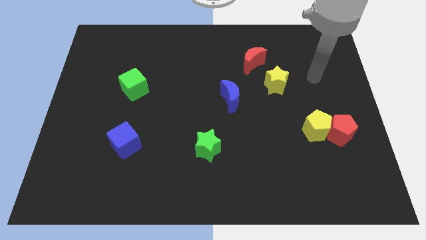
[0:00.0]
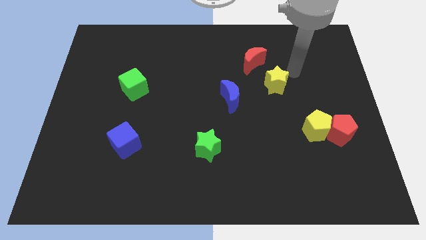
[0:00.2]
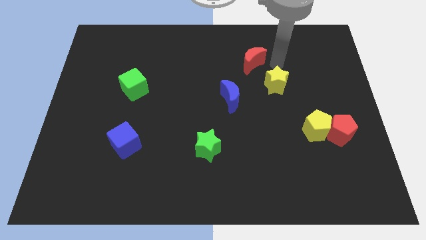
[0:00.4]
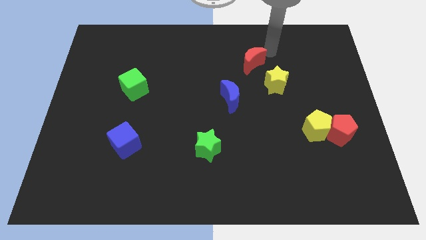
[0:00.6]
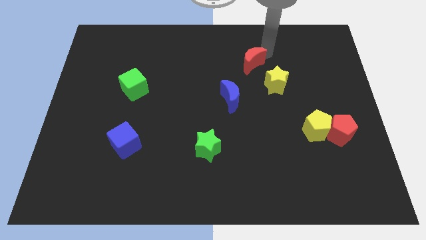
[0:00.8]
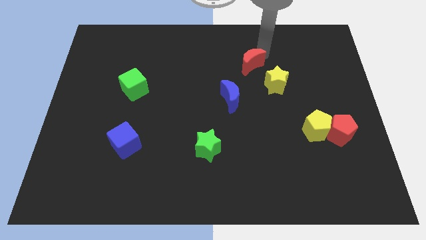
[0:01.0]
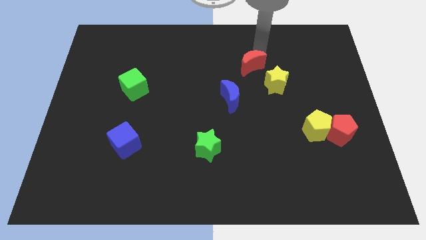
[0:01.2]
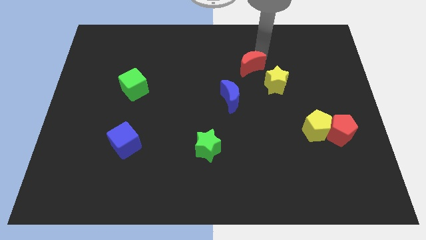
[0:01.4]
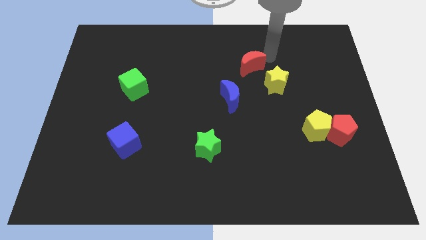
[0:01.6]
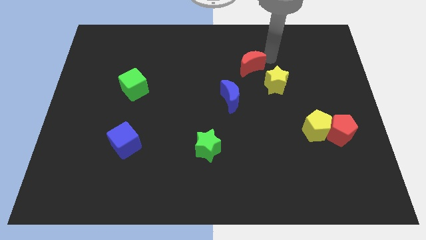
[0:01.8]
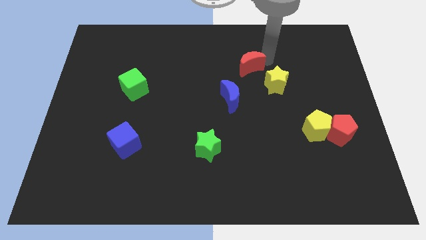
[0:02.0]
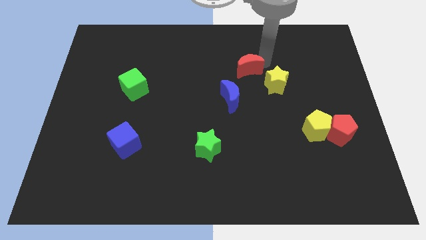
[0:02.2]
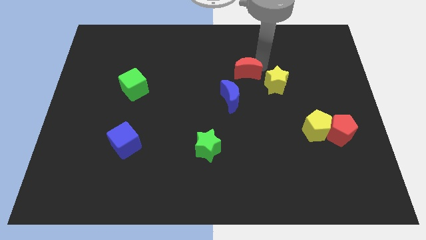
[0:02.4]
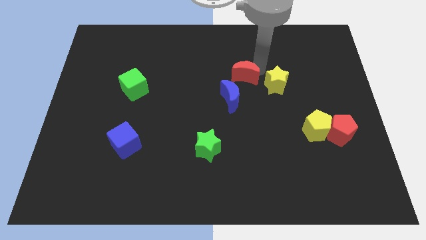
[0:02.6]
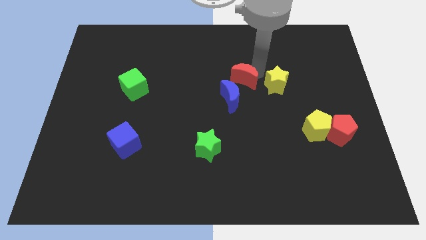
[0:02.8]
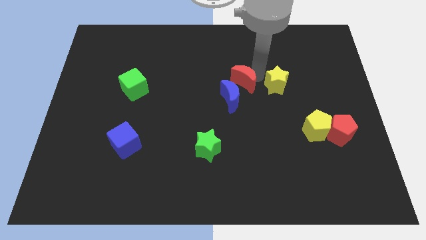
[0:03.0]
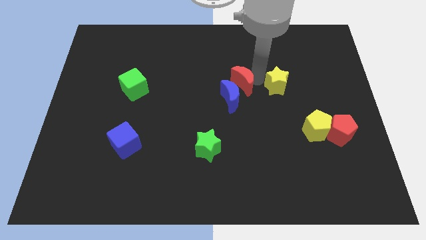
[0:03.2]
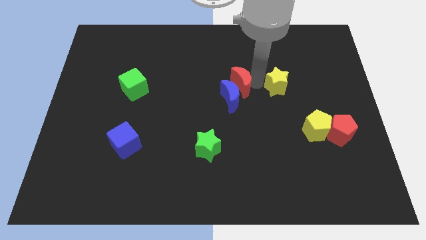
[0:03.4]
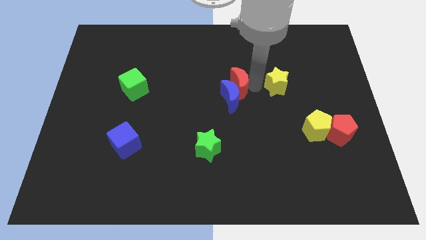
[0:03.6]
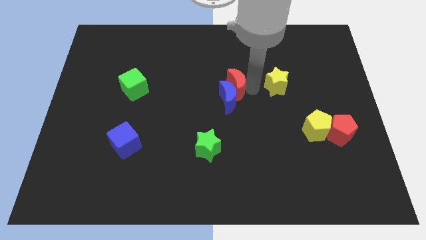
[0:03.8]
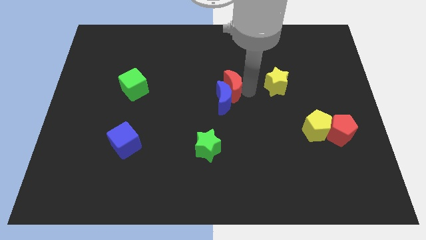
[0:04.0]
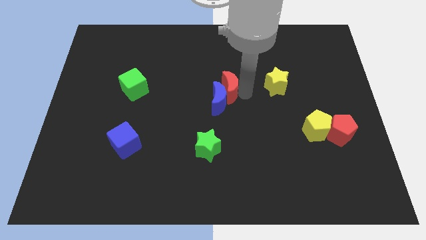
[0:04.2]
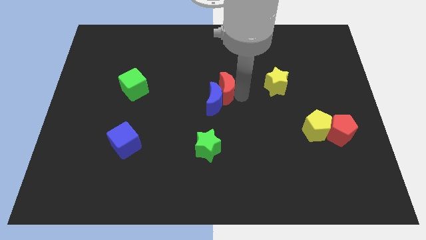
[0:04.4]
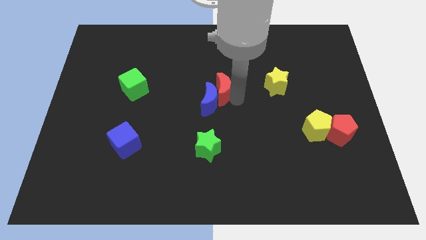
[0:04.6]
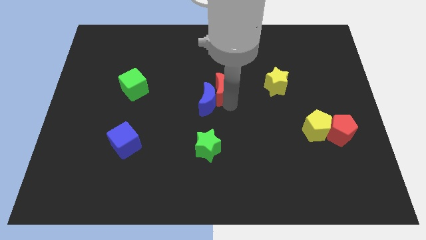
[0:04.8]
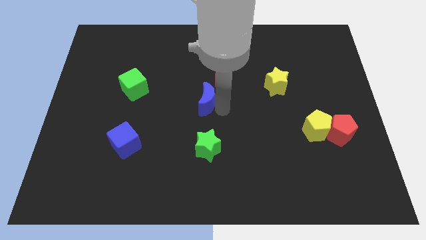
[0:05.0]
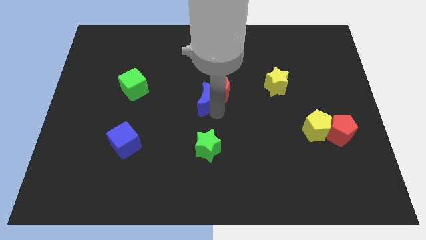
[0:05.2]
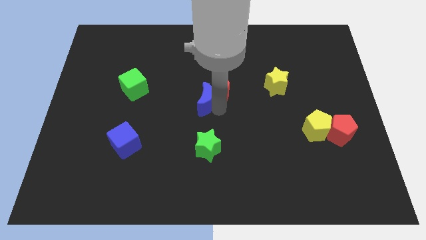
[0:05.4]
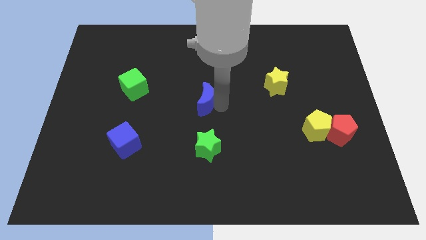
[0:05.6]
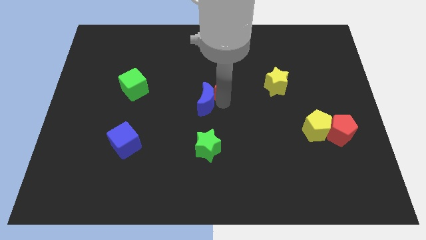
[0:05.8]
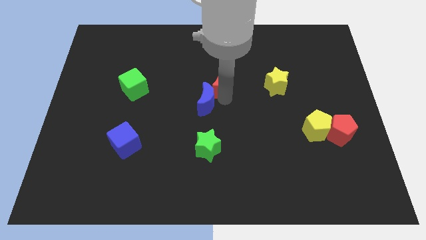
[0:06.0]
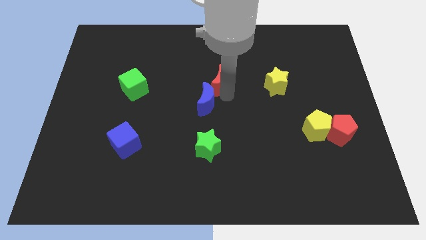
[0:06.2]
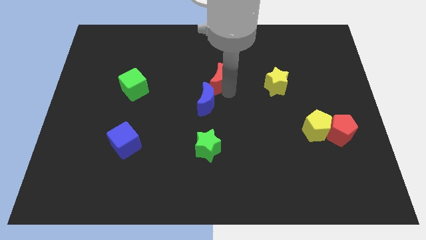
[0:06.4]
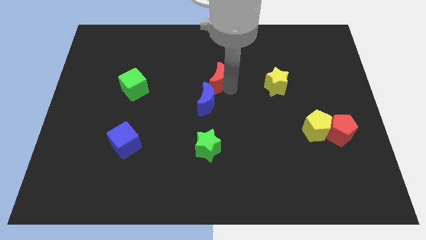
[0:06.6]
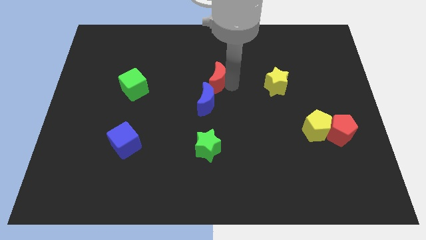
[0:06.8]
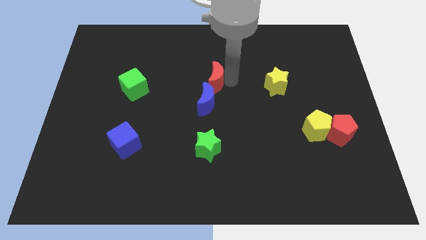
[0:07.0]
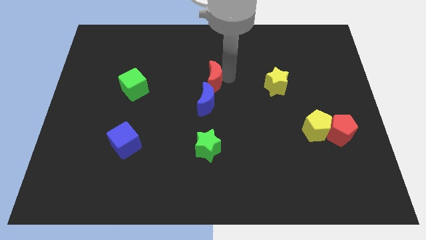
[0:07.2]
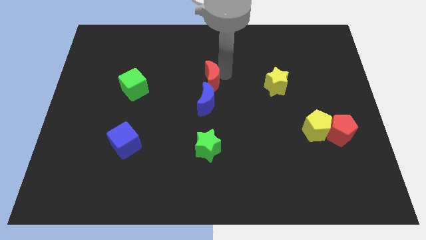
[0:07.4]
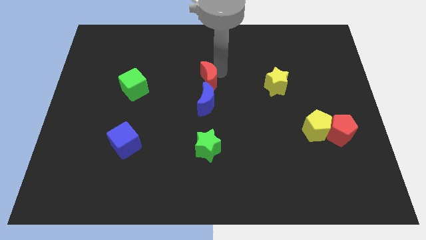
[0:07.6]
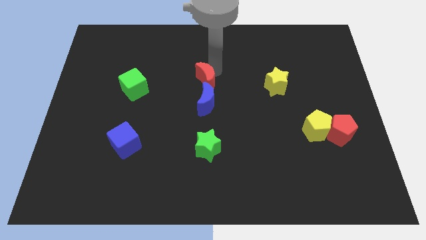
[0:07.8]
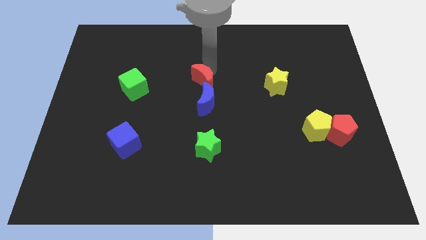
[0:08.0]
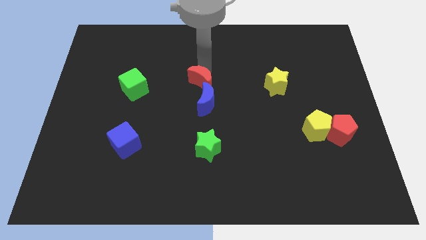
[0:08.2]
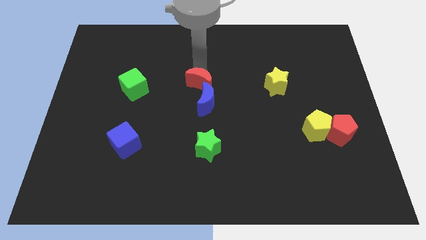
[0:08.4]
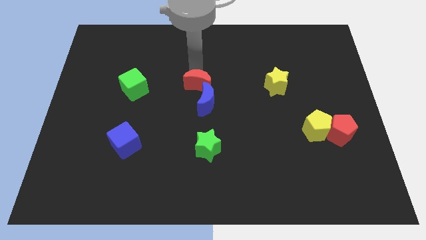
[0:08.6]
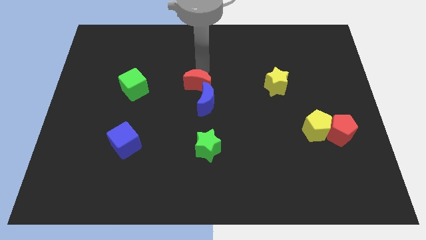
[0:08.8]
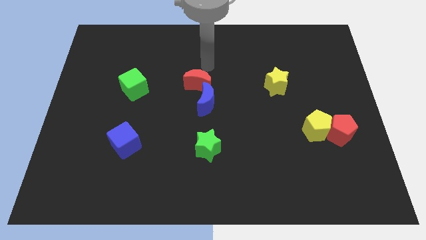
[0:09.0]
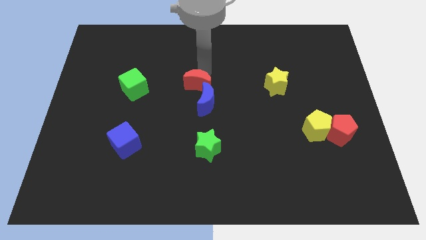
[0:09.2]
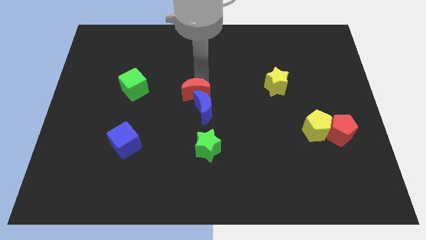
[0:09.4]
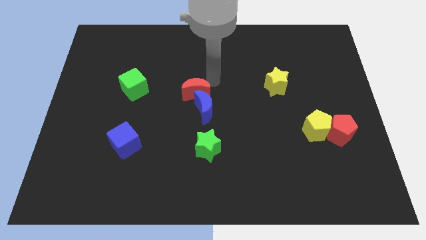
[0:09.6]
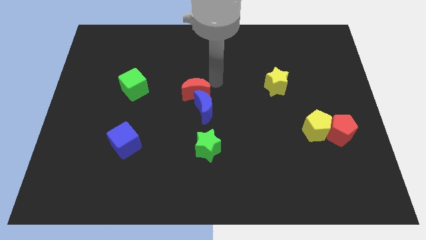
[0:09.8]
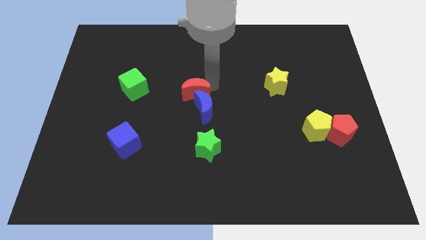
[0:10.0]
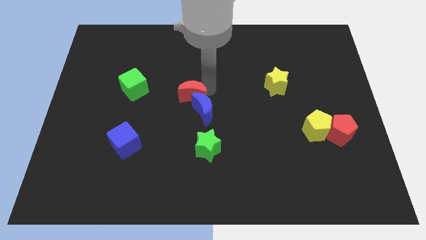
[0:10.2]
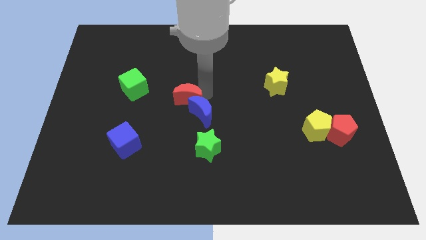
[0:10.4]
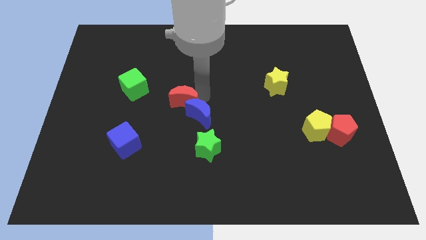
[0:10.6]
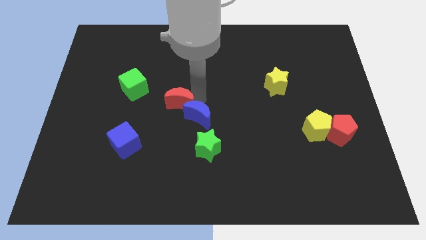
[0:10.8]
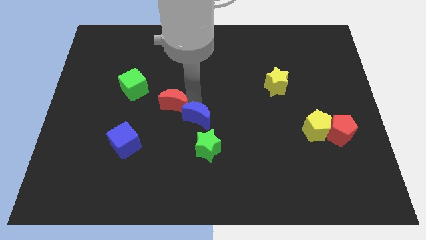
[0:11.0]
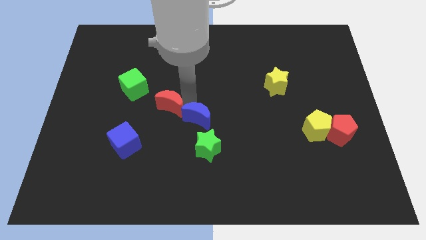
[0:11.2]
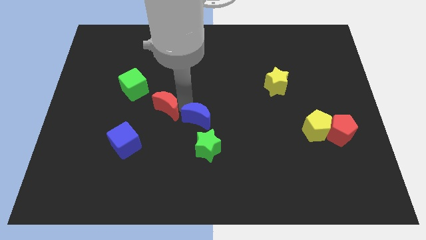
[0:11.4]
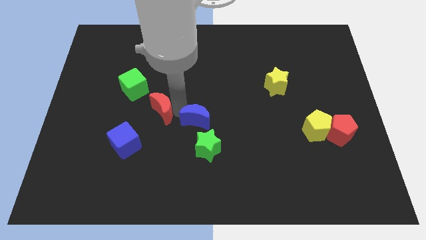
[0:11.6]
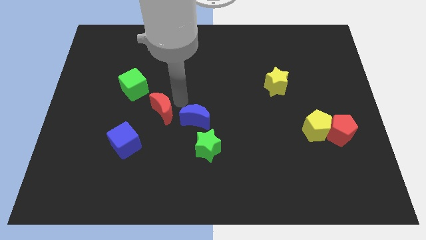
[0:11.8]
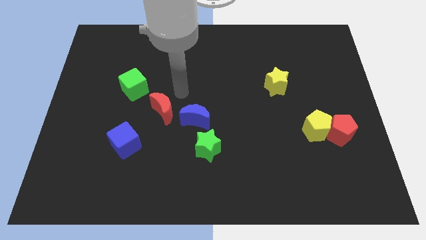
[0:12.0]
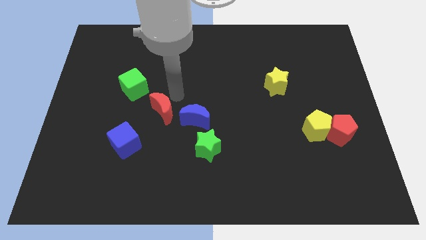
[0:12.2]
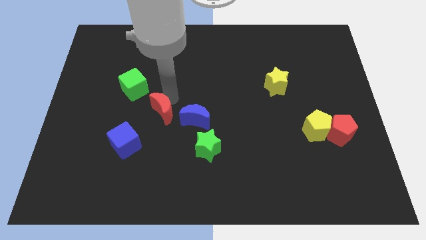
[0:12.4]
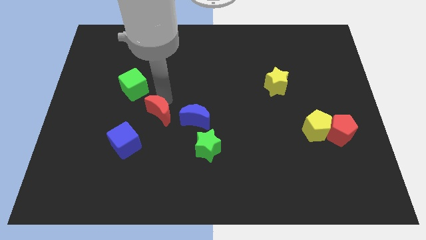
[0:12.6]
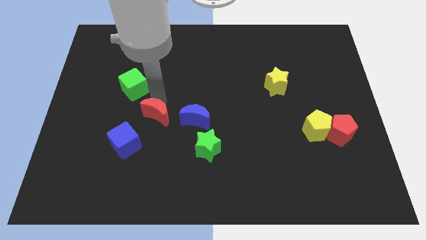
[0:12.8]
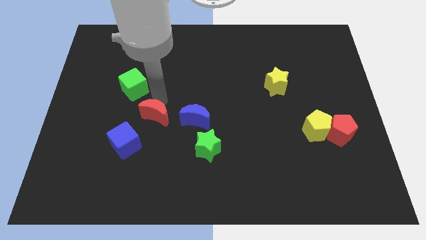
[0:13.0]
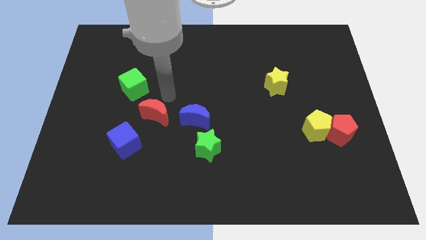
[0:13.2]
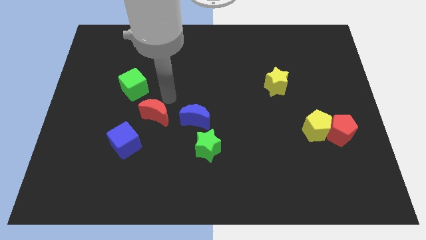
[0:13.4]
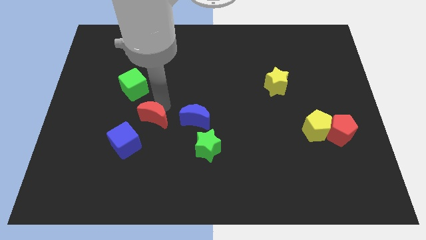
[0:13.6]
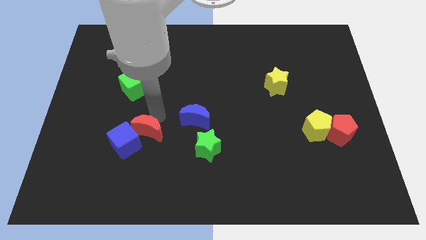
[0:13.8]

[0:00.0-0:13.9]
put the red moon to the blue cube
